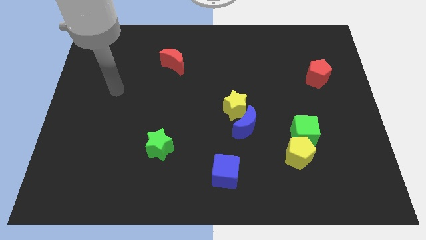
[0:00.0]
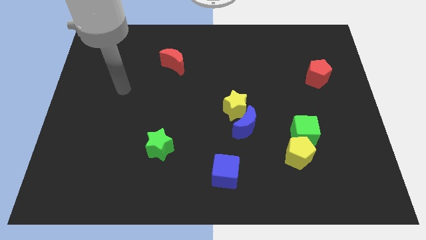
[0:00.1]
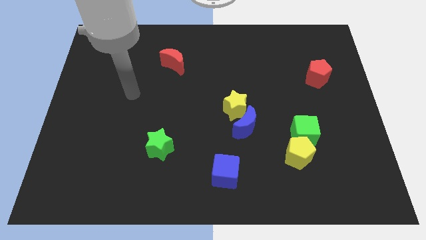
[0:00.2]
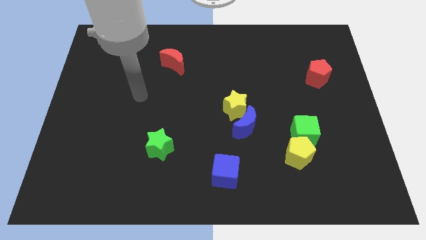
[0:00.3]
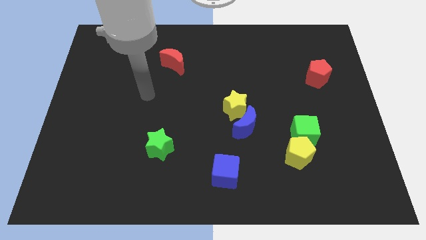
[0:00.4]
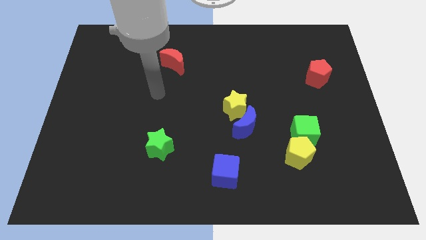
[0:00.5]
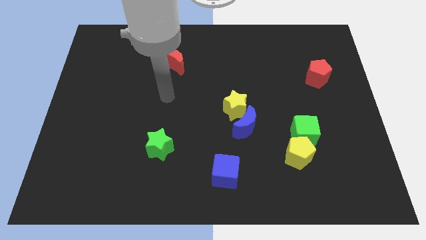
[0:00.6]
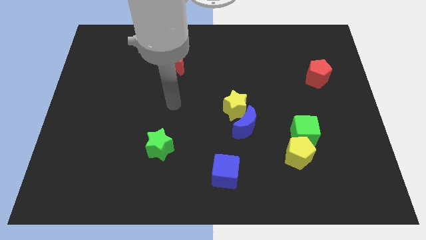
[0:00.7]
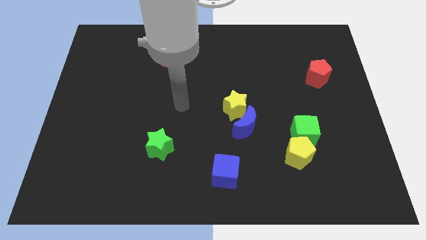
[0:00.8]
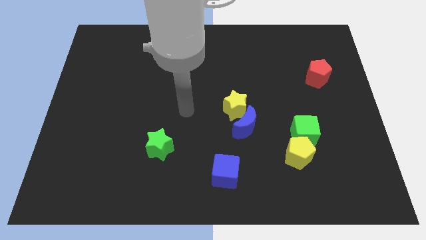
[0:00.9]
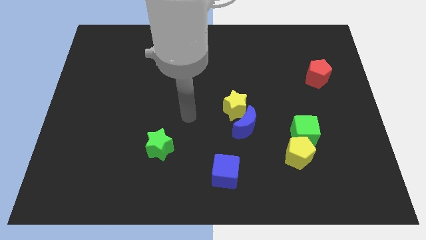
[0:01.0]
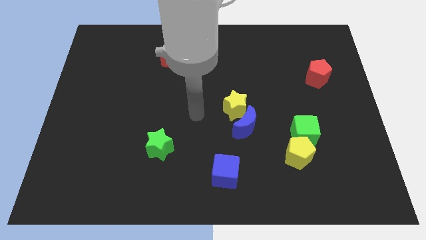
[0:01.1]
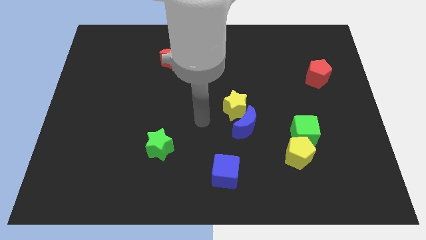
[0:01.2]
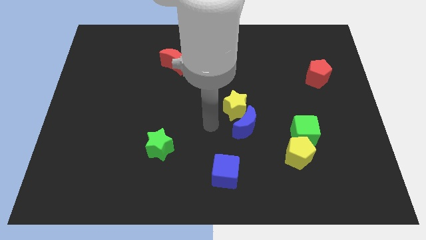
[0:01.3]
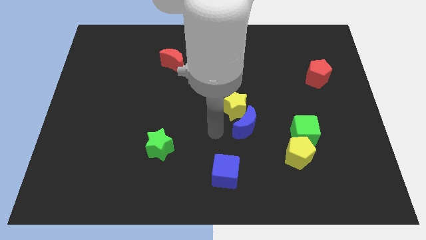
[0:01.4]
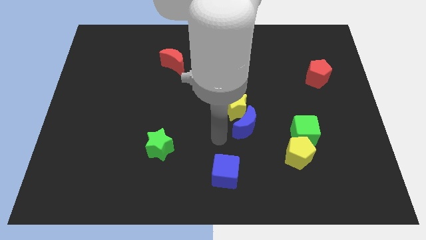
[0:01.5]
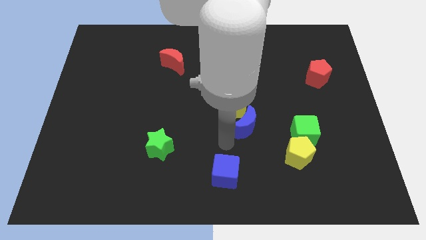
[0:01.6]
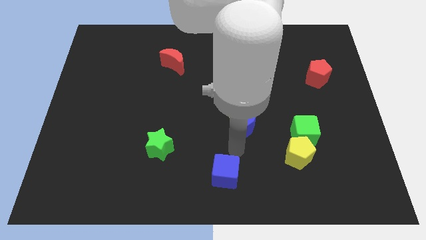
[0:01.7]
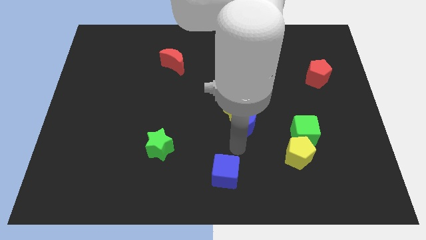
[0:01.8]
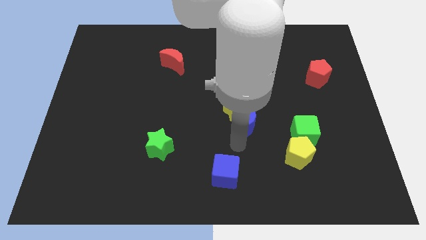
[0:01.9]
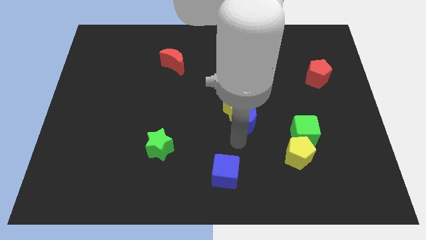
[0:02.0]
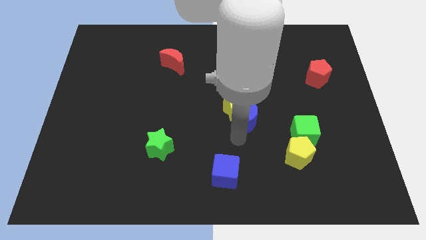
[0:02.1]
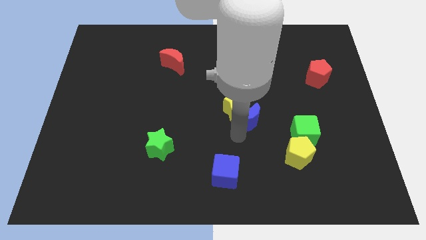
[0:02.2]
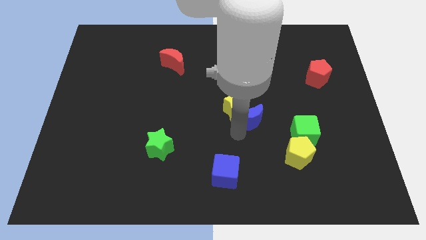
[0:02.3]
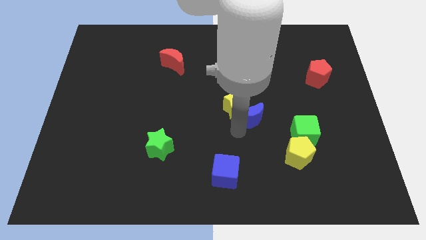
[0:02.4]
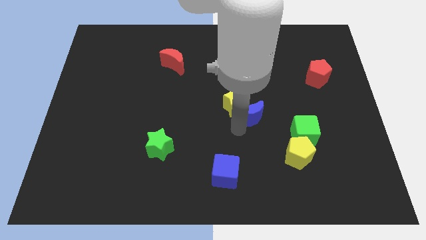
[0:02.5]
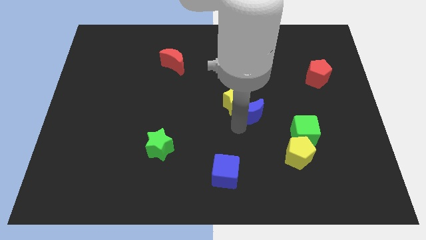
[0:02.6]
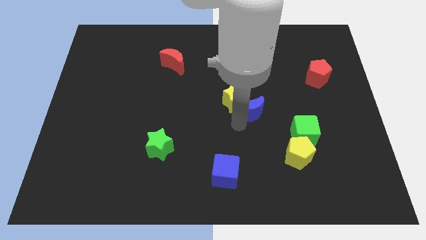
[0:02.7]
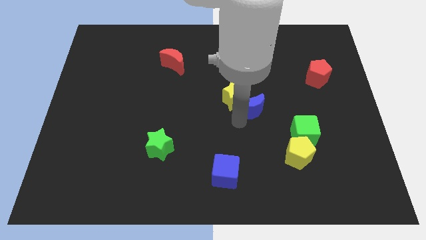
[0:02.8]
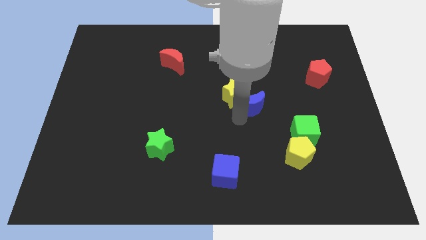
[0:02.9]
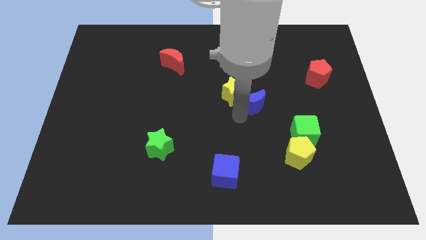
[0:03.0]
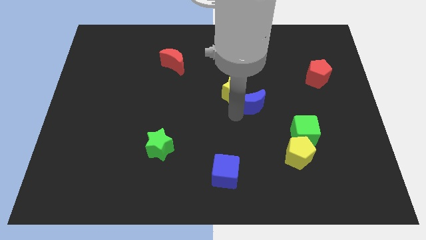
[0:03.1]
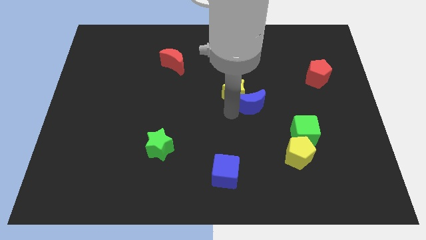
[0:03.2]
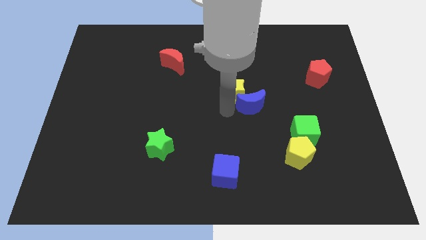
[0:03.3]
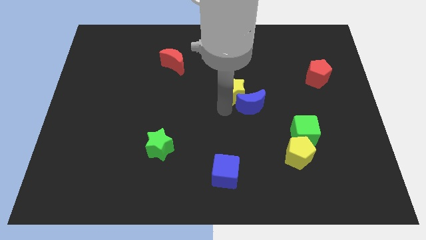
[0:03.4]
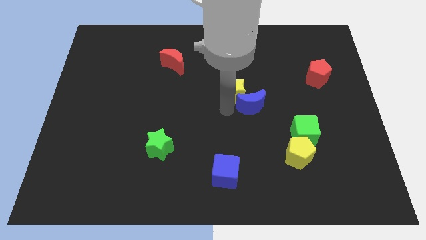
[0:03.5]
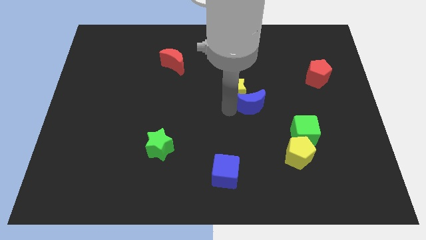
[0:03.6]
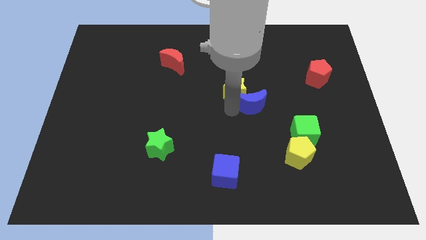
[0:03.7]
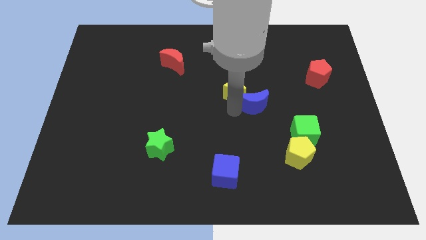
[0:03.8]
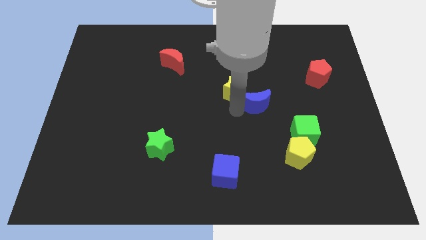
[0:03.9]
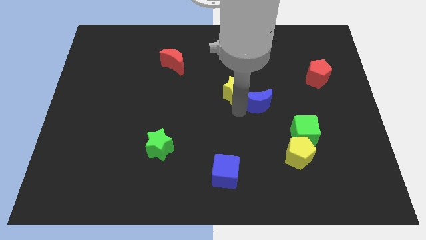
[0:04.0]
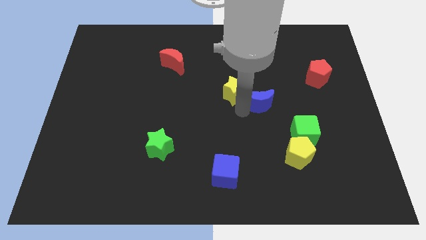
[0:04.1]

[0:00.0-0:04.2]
push the blue moon upwards and right diagonally a little bit

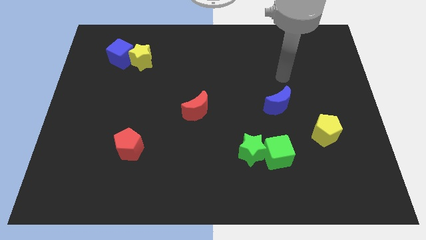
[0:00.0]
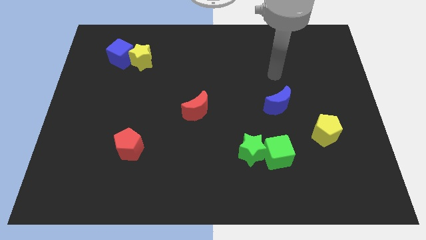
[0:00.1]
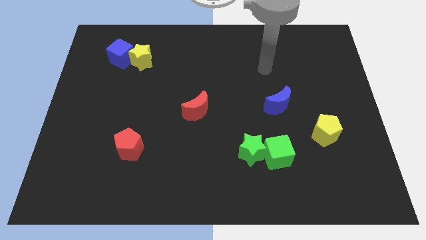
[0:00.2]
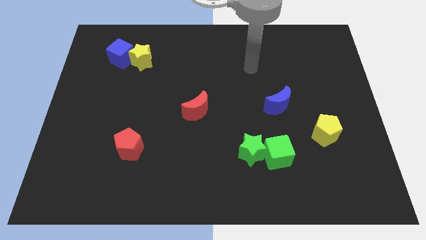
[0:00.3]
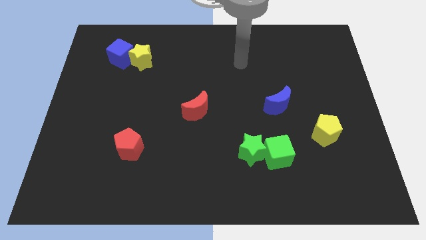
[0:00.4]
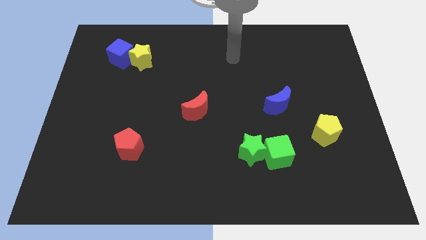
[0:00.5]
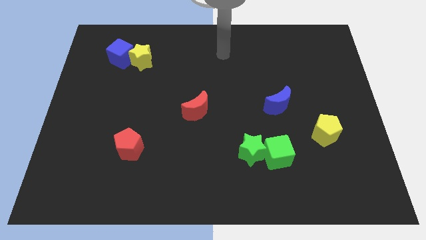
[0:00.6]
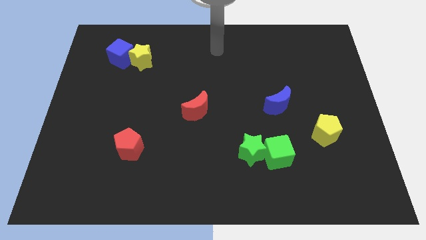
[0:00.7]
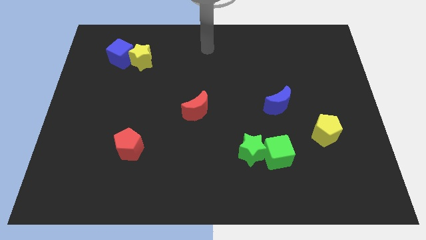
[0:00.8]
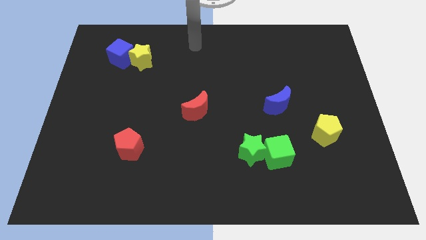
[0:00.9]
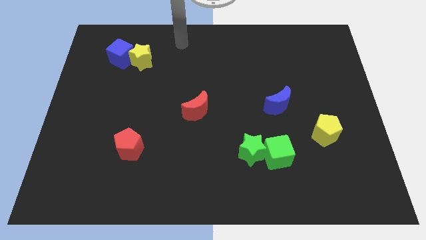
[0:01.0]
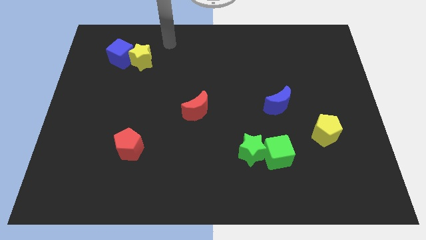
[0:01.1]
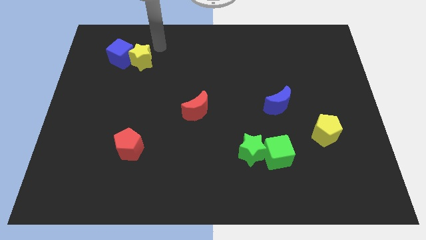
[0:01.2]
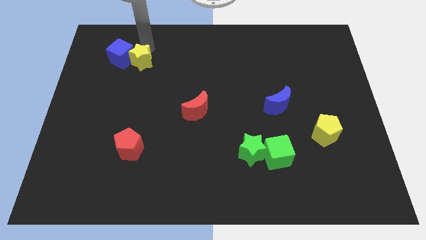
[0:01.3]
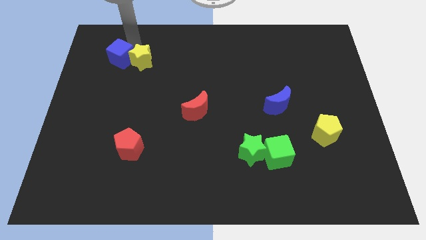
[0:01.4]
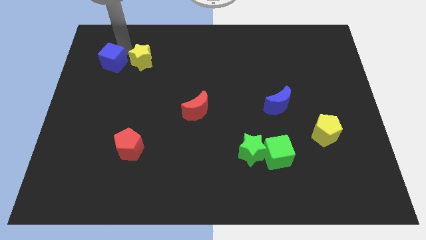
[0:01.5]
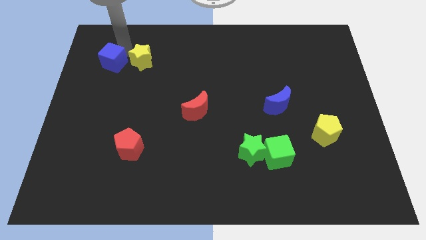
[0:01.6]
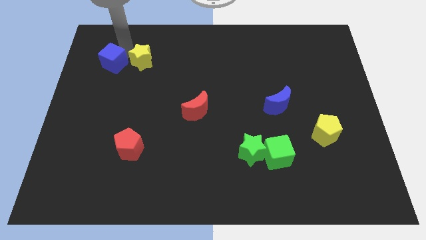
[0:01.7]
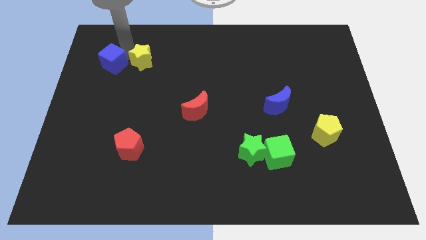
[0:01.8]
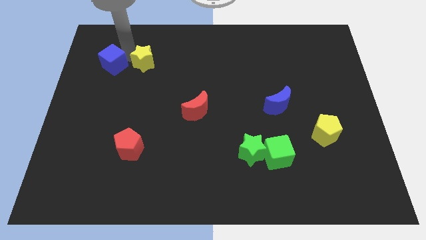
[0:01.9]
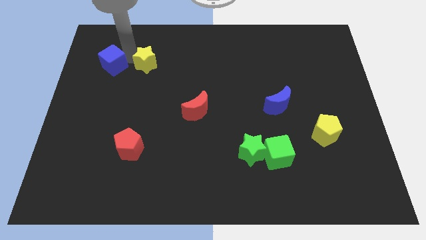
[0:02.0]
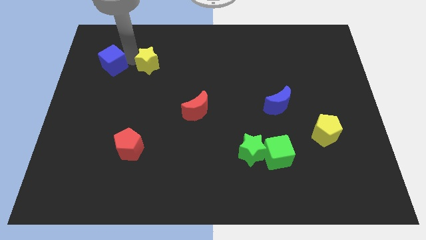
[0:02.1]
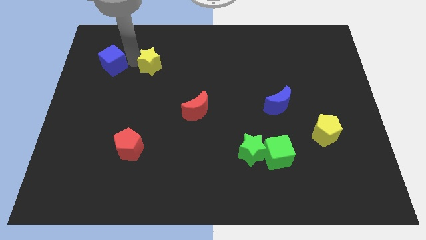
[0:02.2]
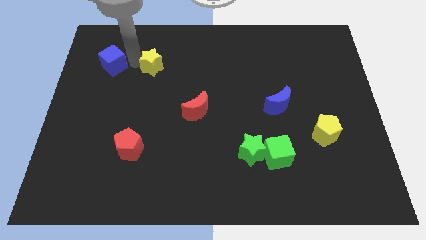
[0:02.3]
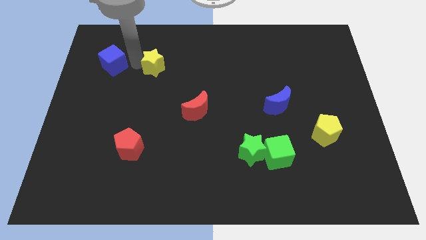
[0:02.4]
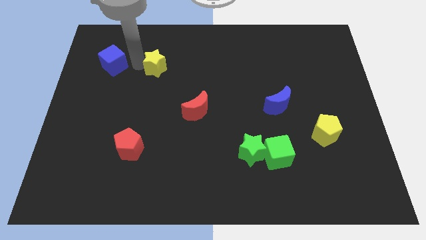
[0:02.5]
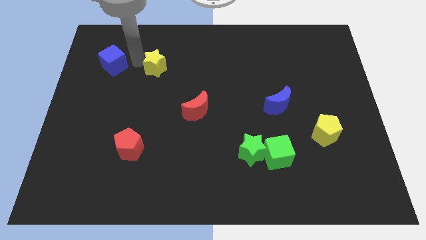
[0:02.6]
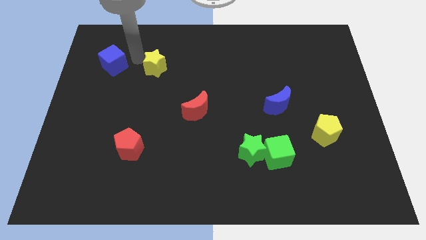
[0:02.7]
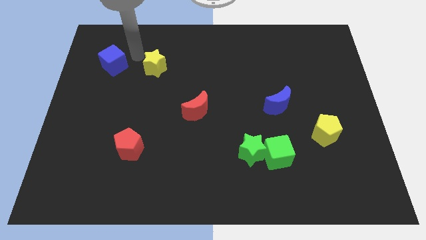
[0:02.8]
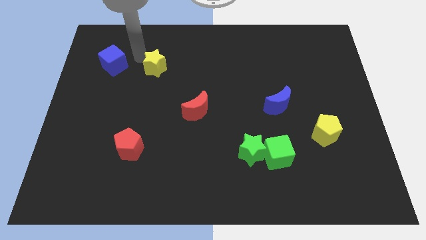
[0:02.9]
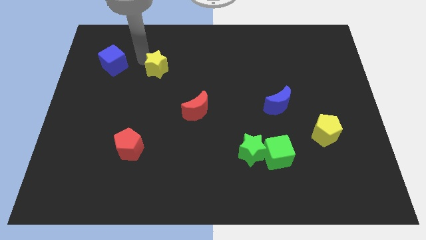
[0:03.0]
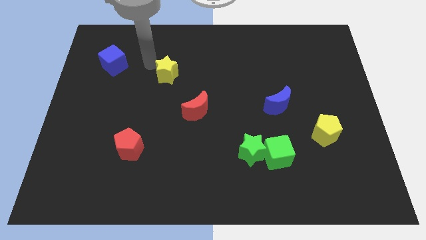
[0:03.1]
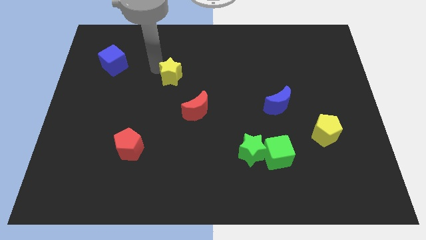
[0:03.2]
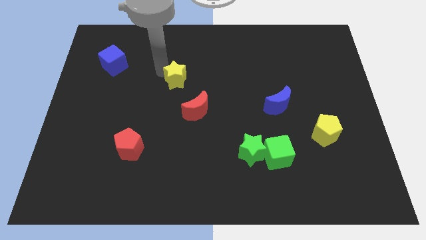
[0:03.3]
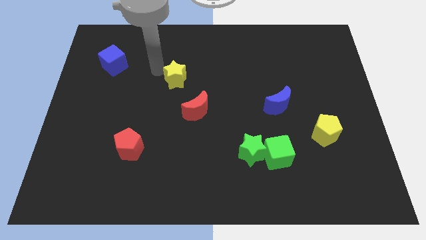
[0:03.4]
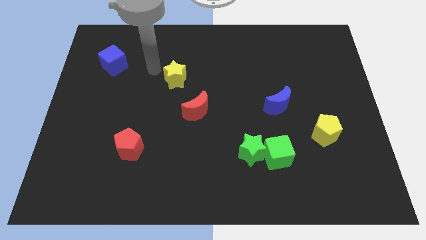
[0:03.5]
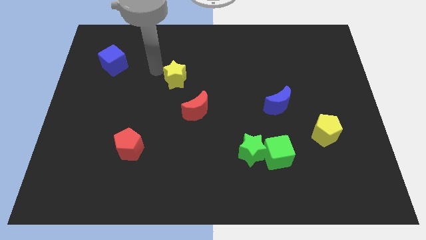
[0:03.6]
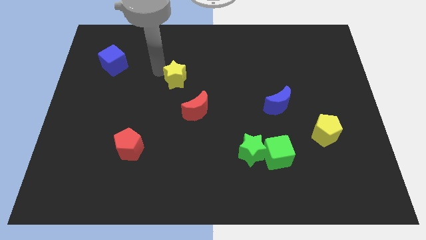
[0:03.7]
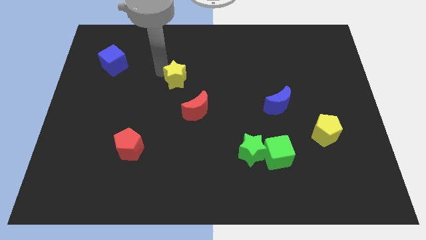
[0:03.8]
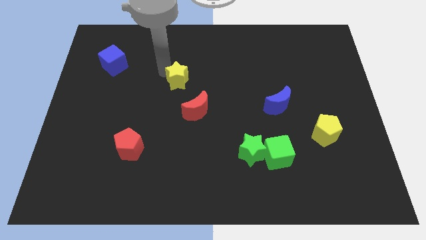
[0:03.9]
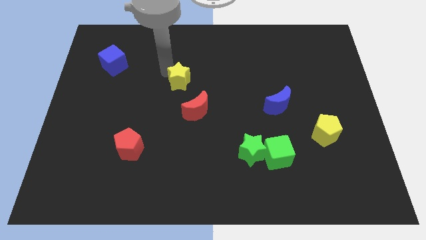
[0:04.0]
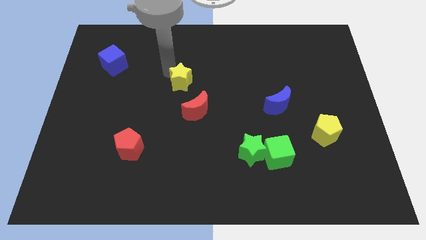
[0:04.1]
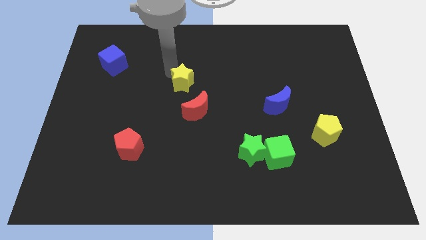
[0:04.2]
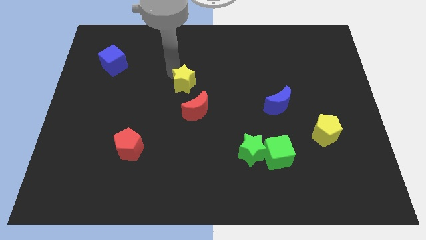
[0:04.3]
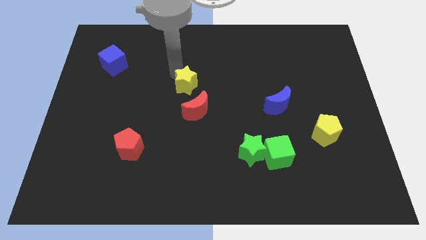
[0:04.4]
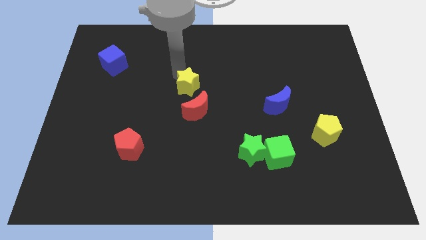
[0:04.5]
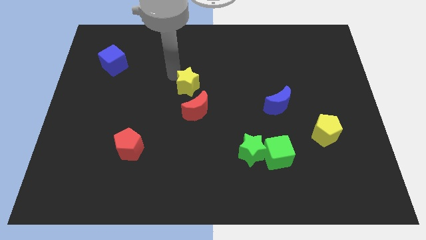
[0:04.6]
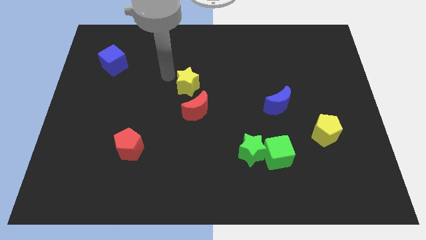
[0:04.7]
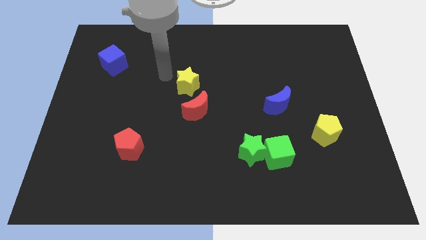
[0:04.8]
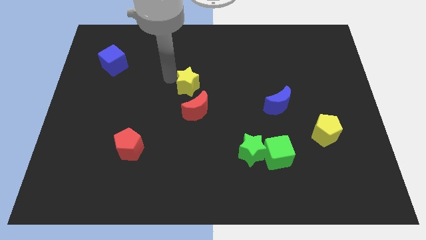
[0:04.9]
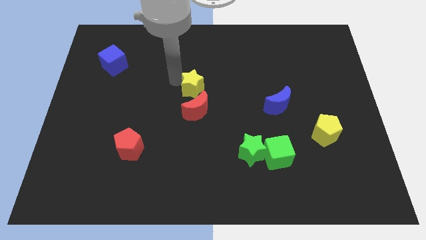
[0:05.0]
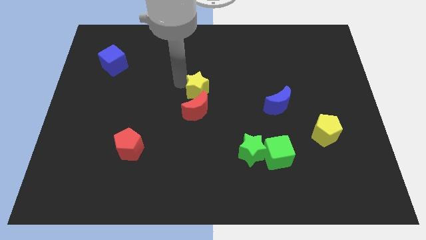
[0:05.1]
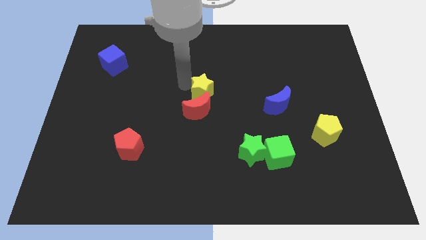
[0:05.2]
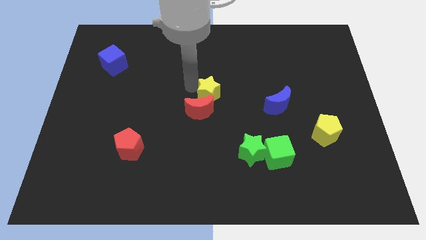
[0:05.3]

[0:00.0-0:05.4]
slide the yellow star down and to the right diagonally
